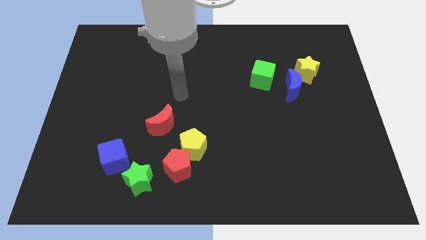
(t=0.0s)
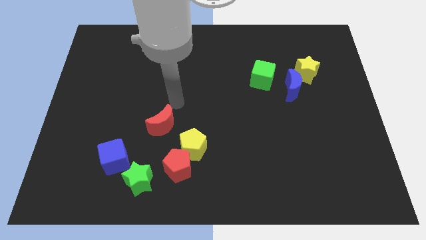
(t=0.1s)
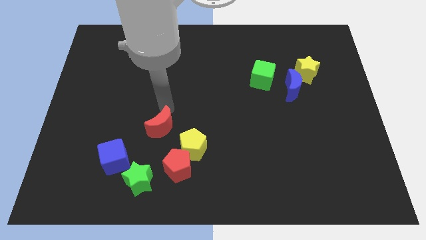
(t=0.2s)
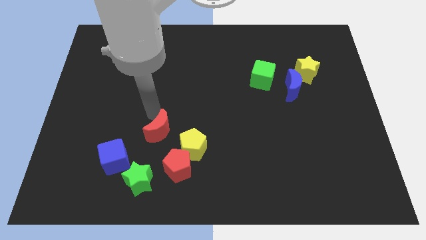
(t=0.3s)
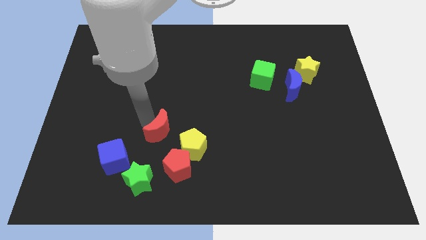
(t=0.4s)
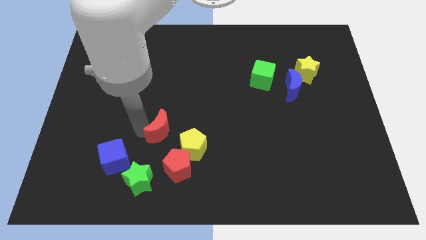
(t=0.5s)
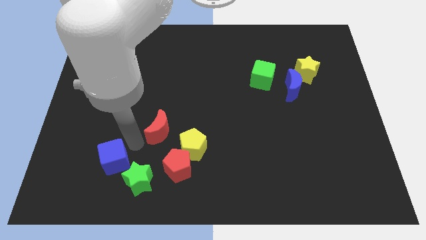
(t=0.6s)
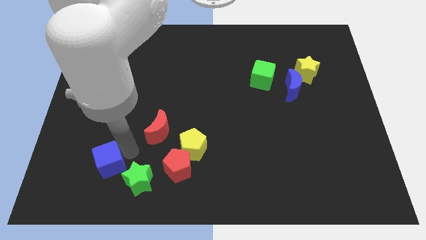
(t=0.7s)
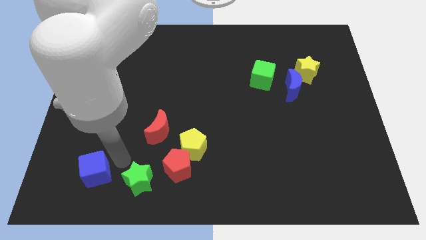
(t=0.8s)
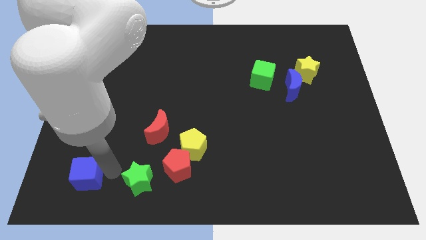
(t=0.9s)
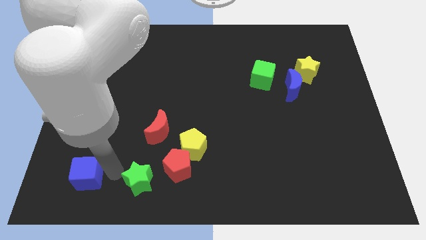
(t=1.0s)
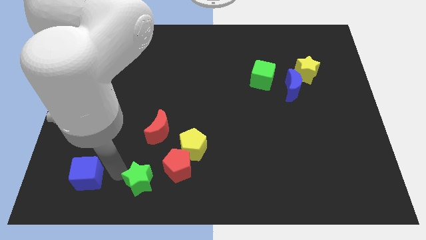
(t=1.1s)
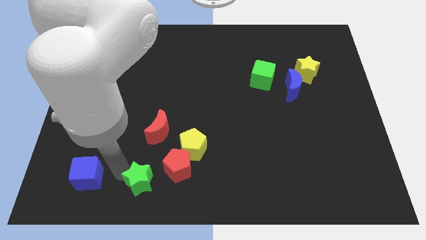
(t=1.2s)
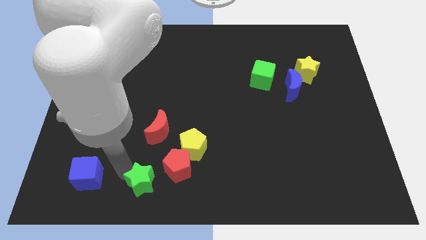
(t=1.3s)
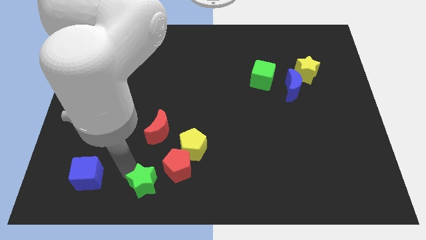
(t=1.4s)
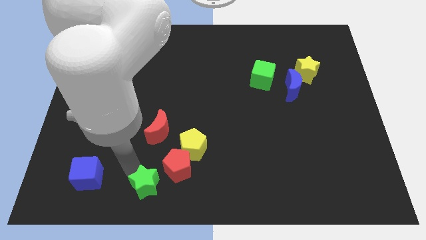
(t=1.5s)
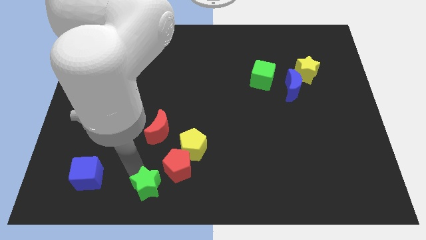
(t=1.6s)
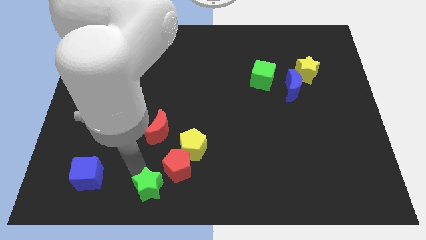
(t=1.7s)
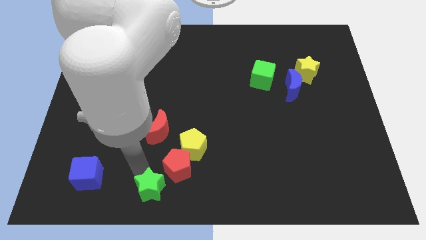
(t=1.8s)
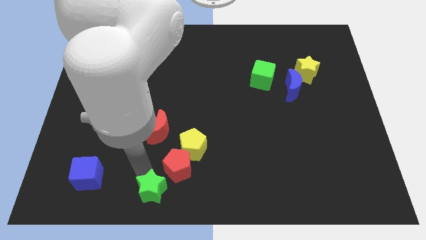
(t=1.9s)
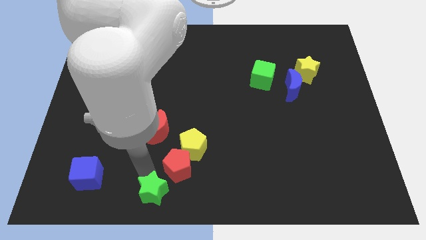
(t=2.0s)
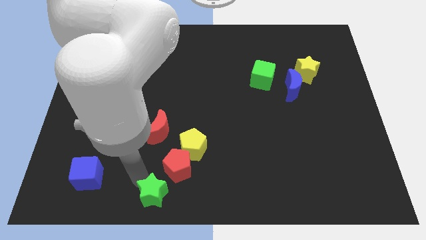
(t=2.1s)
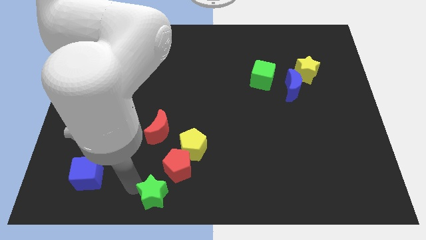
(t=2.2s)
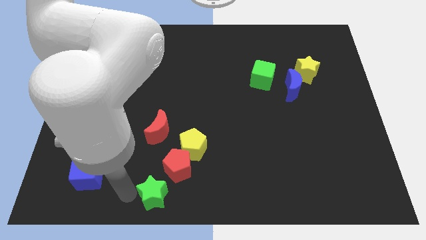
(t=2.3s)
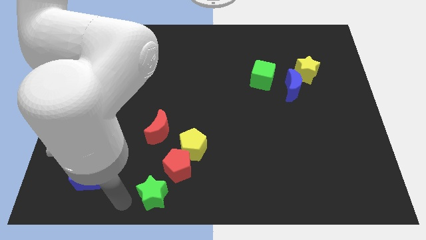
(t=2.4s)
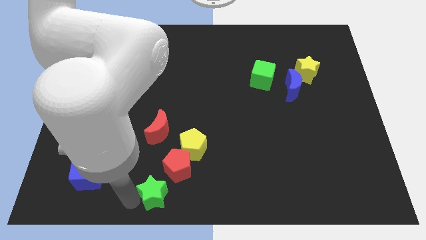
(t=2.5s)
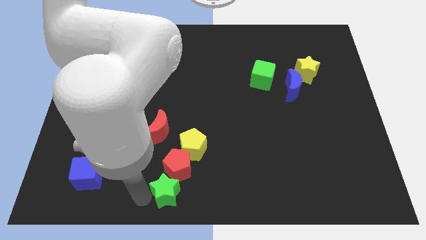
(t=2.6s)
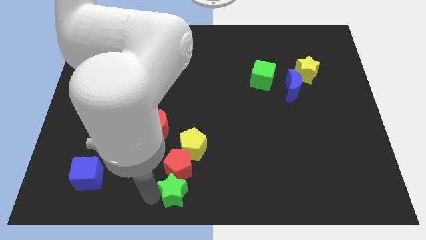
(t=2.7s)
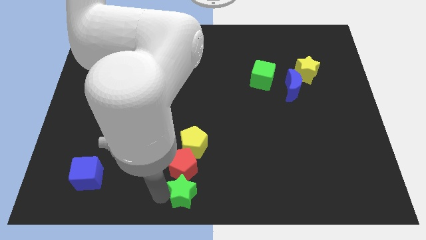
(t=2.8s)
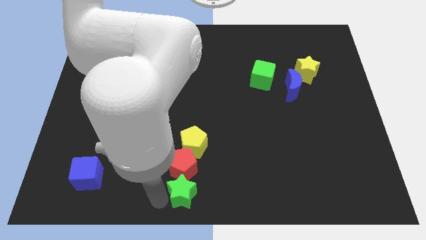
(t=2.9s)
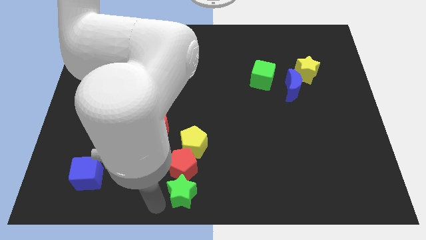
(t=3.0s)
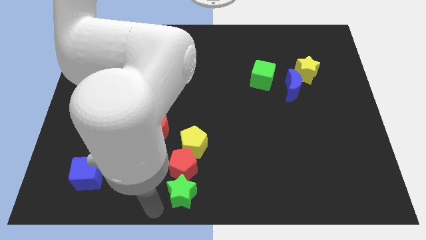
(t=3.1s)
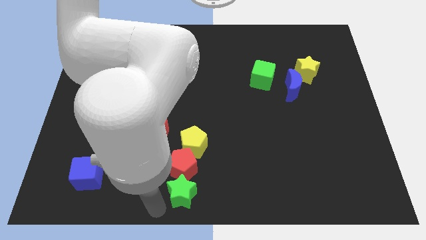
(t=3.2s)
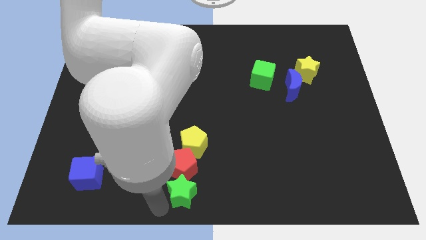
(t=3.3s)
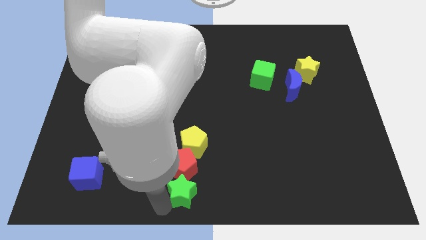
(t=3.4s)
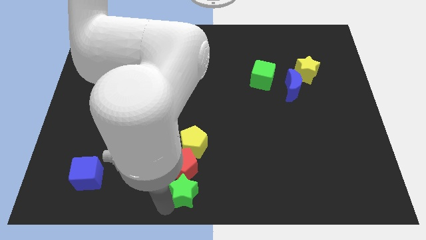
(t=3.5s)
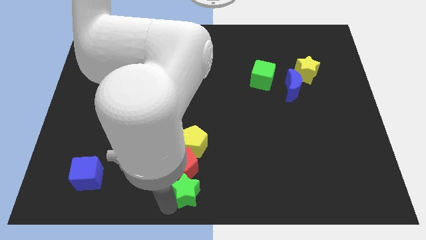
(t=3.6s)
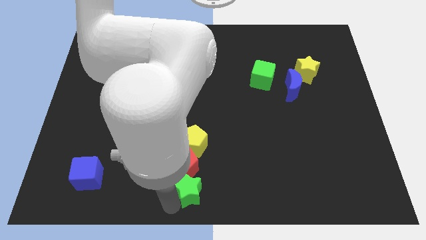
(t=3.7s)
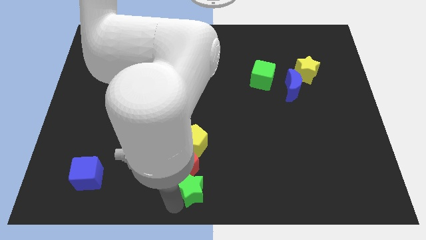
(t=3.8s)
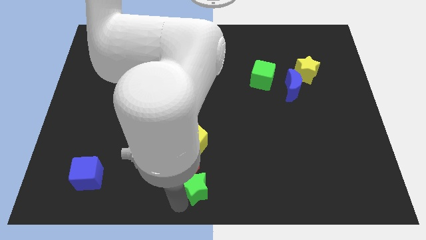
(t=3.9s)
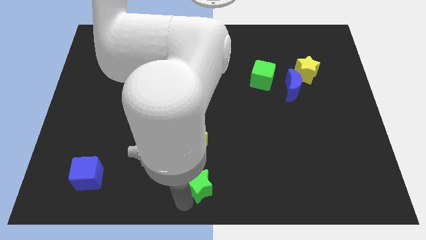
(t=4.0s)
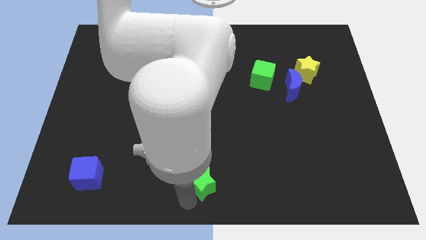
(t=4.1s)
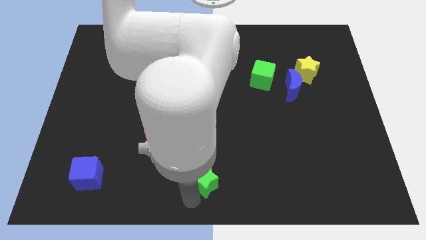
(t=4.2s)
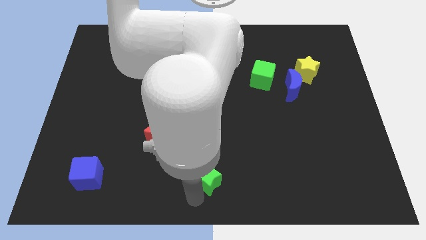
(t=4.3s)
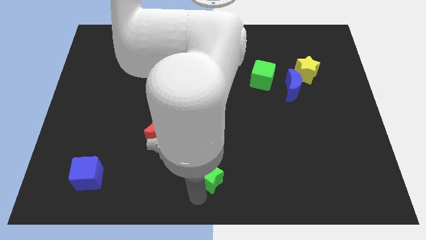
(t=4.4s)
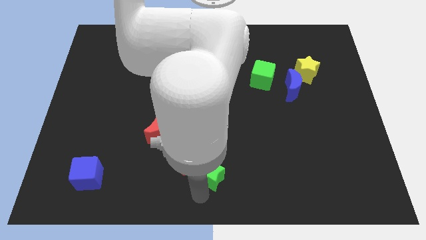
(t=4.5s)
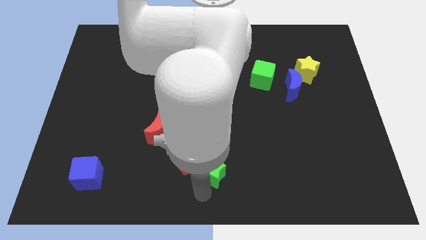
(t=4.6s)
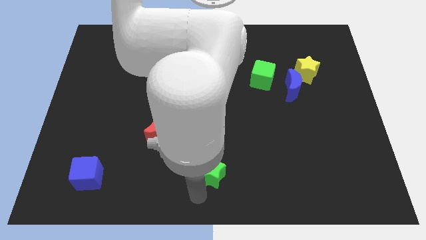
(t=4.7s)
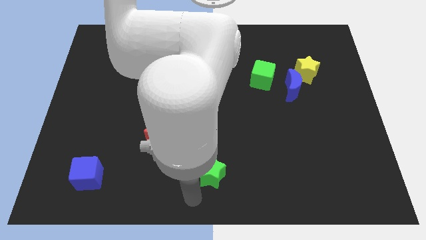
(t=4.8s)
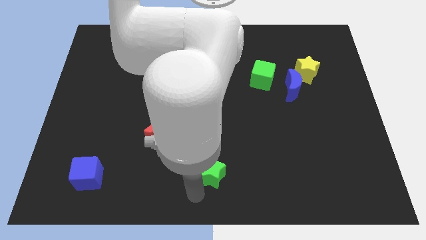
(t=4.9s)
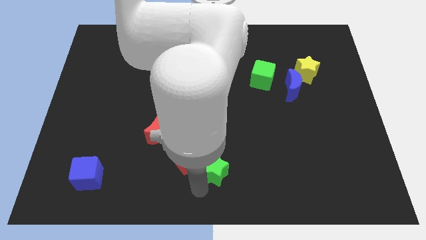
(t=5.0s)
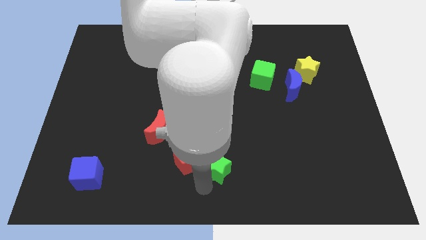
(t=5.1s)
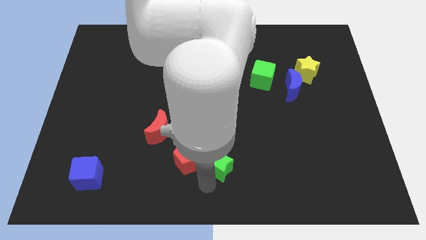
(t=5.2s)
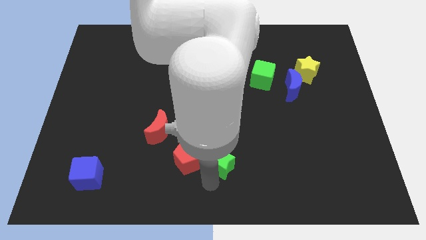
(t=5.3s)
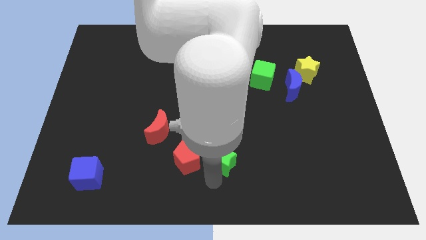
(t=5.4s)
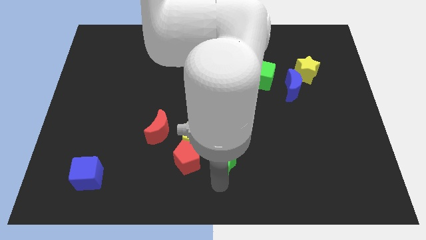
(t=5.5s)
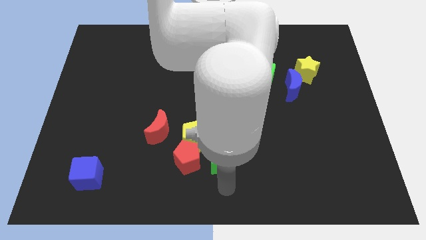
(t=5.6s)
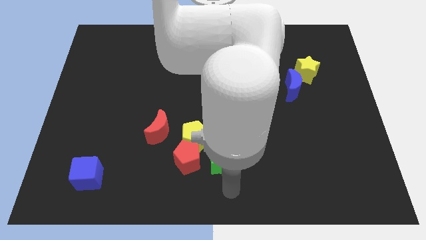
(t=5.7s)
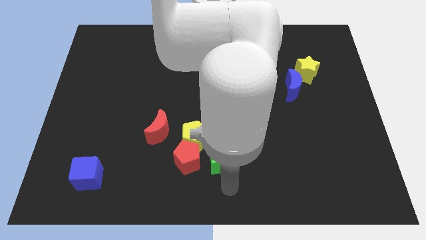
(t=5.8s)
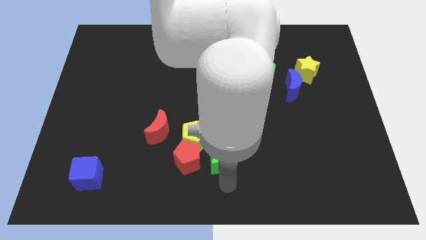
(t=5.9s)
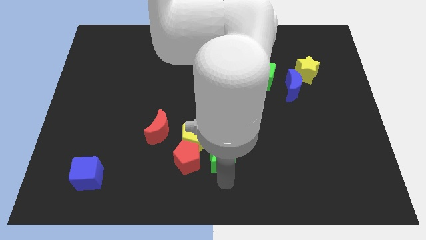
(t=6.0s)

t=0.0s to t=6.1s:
push the green star to the top right side of the red pentagon

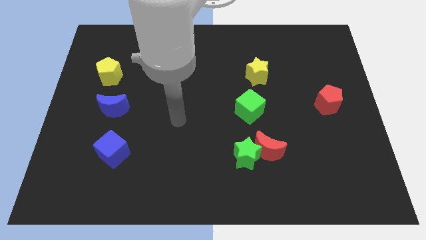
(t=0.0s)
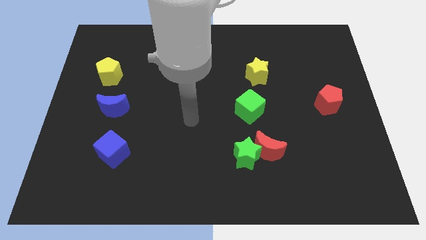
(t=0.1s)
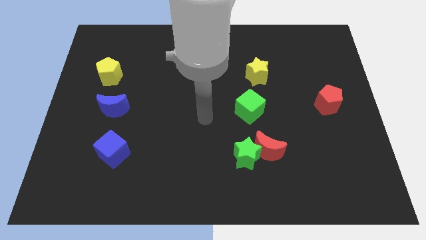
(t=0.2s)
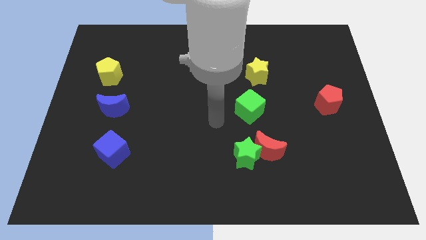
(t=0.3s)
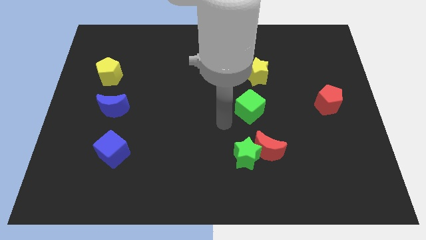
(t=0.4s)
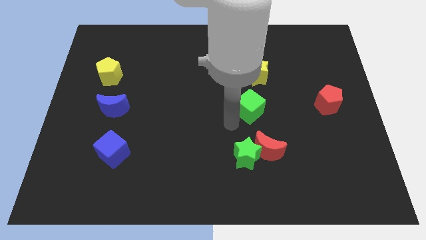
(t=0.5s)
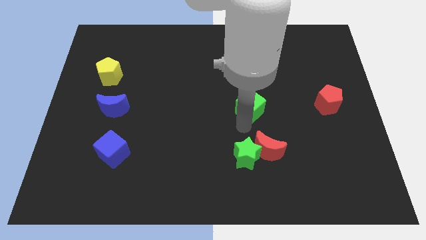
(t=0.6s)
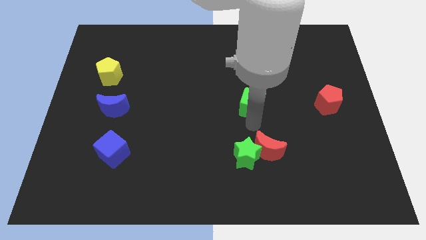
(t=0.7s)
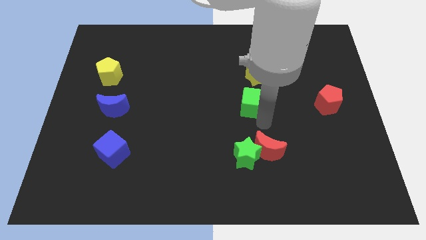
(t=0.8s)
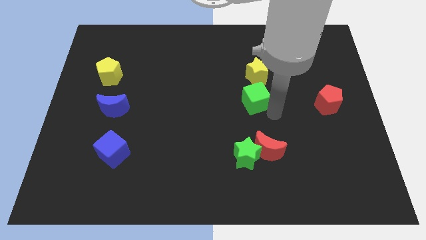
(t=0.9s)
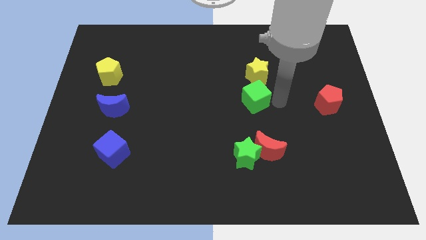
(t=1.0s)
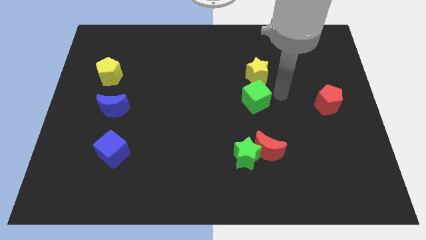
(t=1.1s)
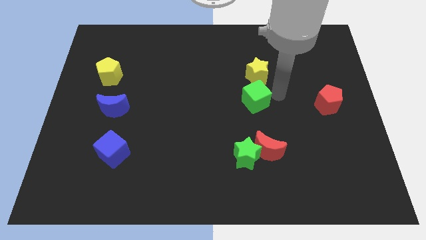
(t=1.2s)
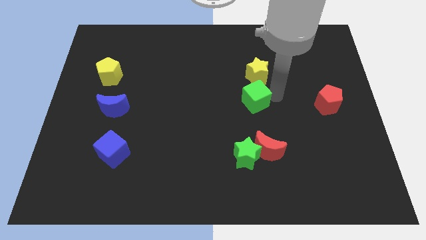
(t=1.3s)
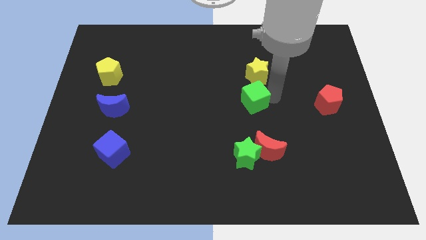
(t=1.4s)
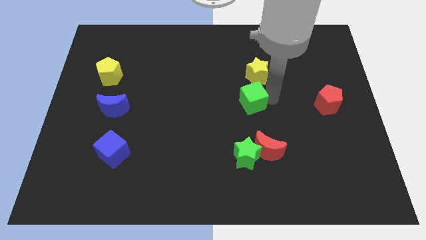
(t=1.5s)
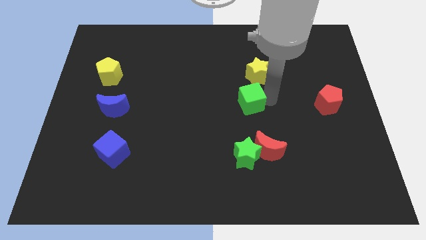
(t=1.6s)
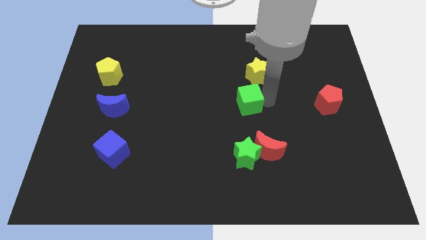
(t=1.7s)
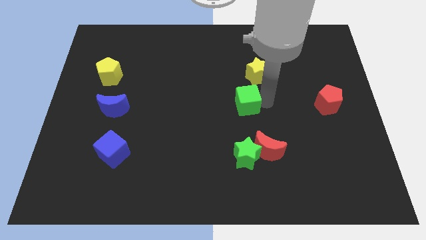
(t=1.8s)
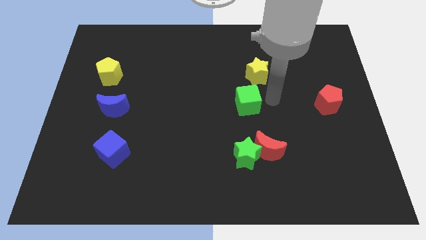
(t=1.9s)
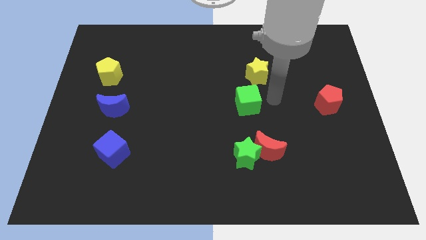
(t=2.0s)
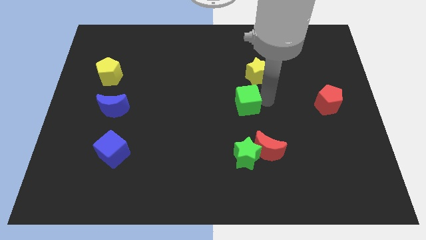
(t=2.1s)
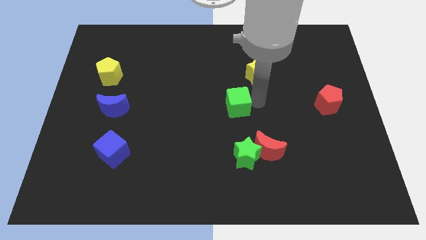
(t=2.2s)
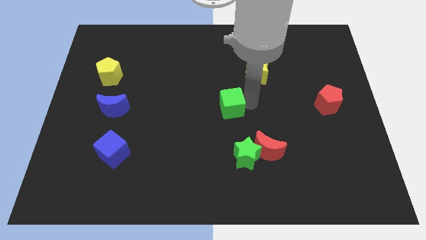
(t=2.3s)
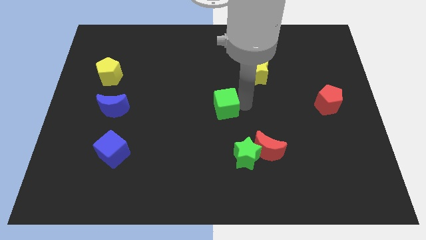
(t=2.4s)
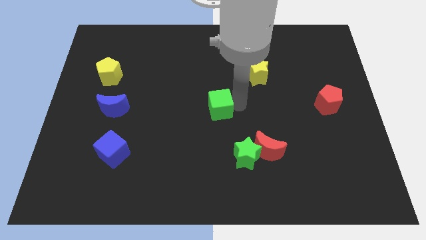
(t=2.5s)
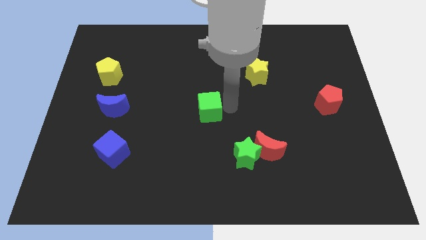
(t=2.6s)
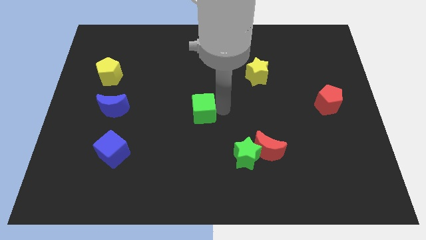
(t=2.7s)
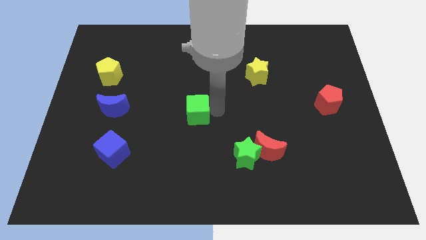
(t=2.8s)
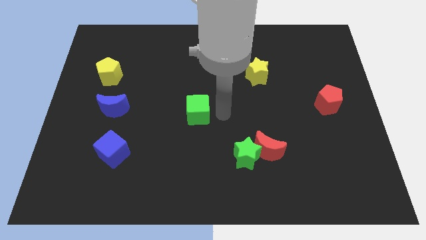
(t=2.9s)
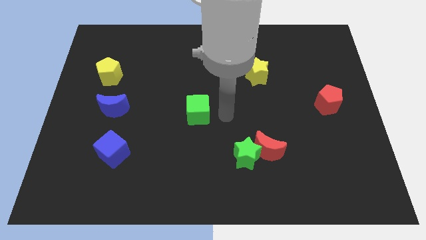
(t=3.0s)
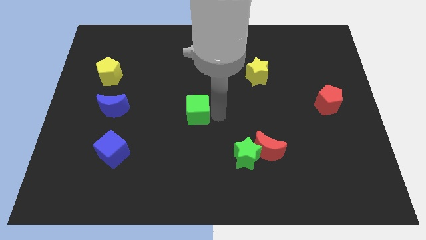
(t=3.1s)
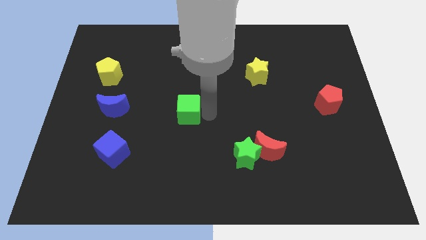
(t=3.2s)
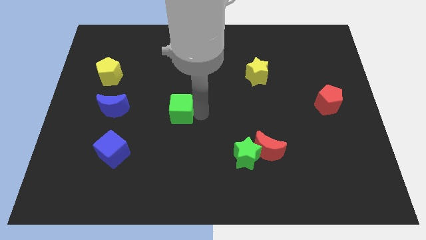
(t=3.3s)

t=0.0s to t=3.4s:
push the green cube to the right of the blue moon
